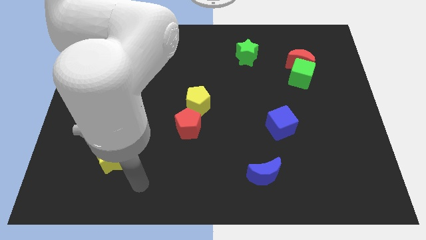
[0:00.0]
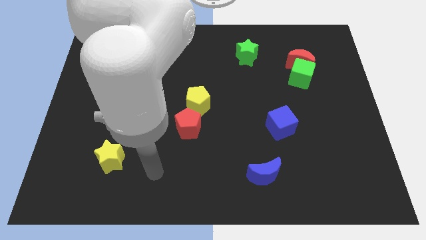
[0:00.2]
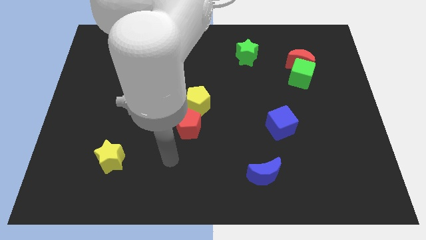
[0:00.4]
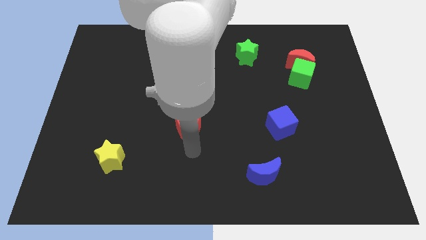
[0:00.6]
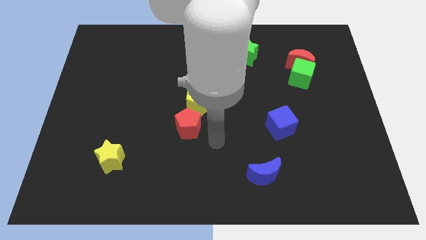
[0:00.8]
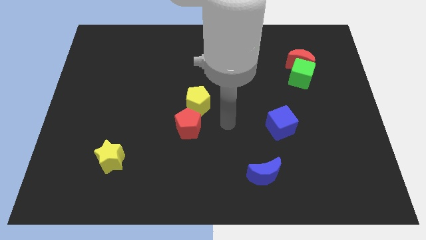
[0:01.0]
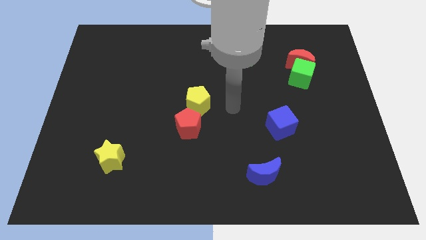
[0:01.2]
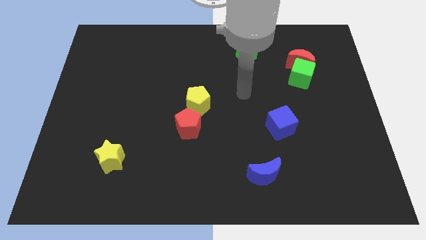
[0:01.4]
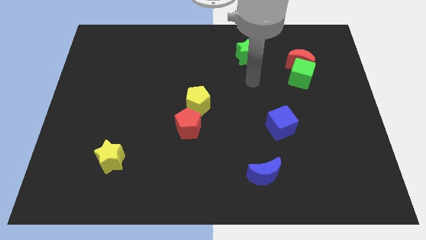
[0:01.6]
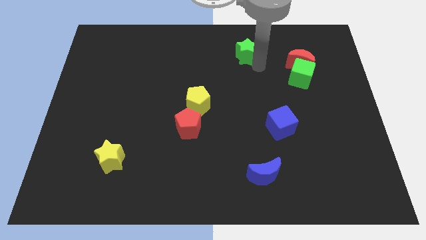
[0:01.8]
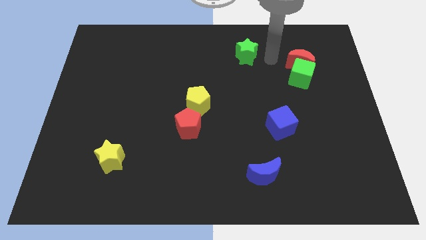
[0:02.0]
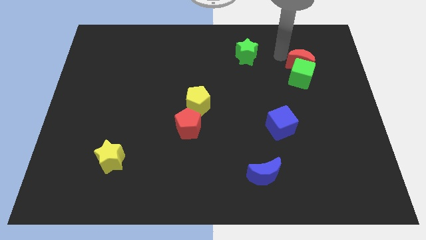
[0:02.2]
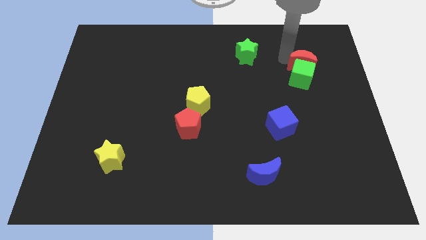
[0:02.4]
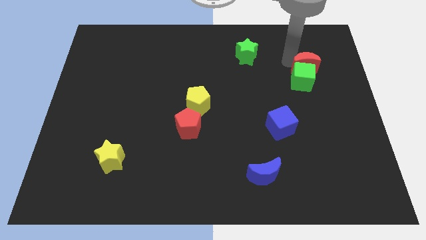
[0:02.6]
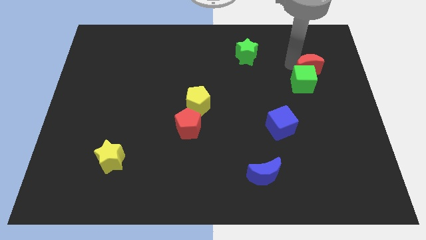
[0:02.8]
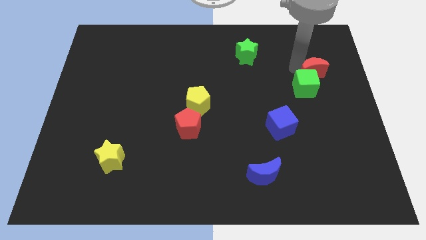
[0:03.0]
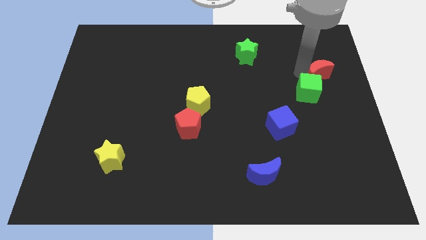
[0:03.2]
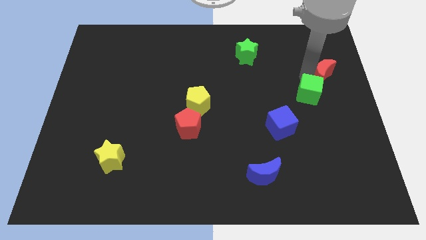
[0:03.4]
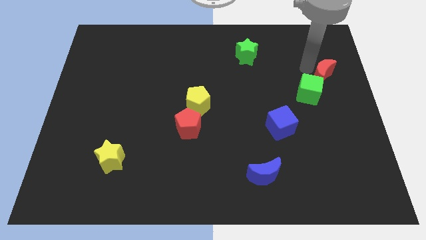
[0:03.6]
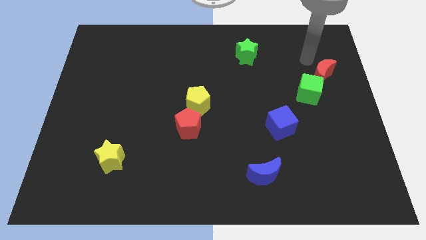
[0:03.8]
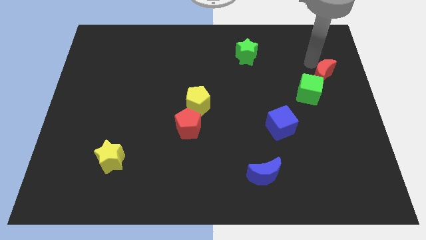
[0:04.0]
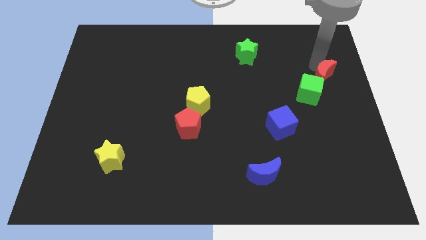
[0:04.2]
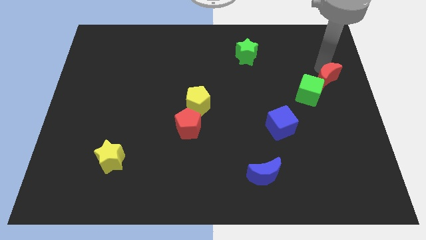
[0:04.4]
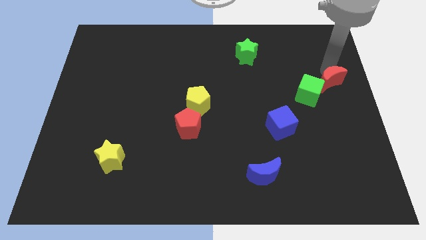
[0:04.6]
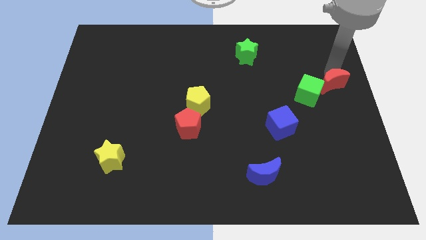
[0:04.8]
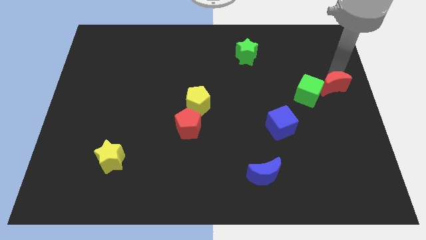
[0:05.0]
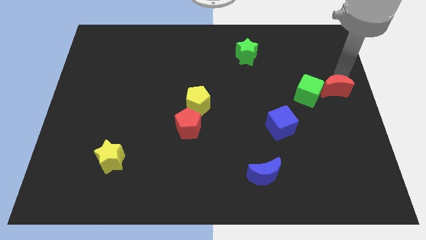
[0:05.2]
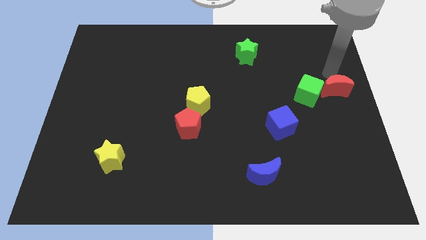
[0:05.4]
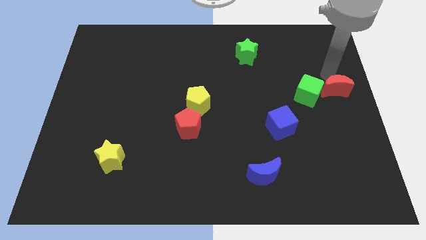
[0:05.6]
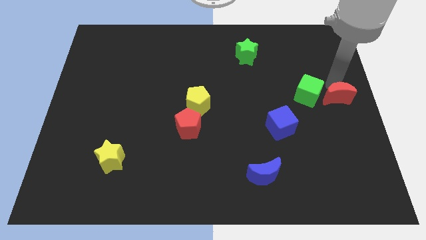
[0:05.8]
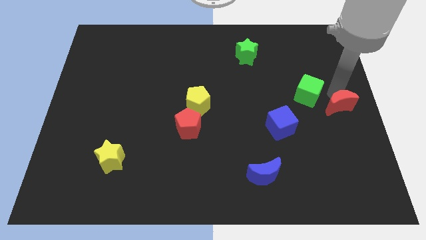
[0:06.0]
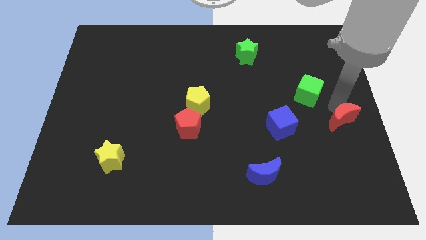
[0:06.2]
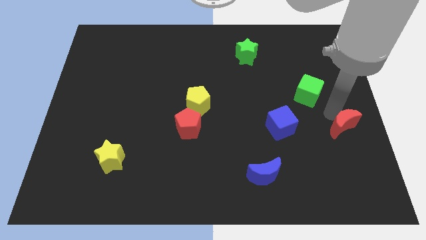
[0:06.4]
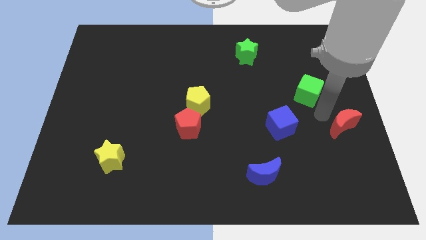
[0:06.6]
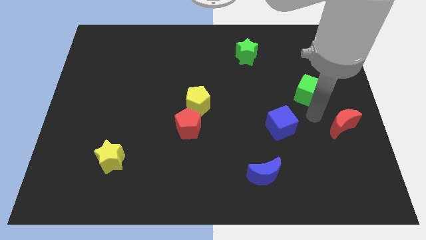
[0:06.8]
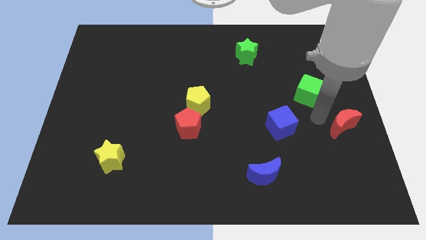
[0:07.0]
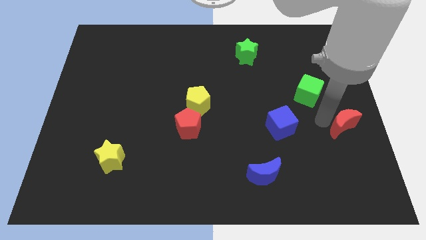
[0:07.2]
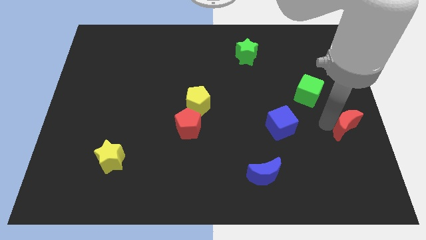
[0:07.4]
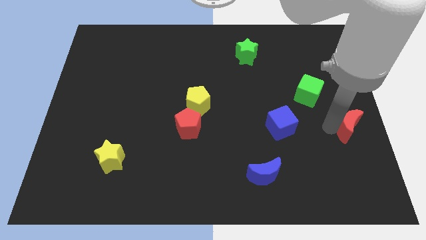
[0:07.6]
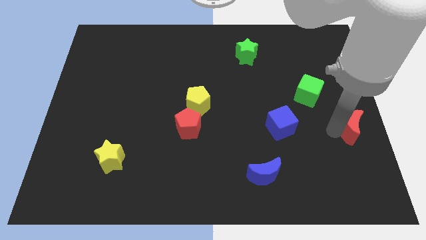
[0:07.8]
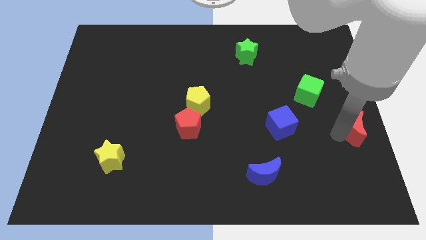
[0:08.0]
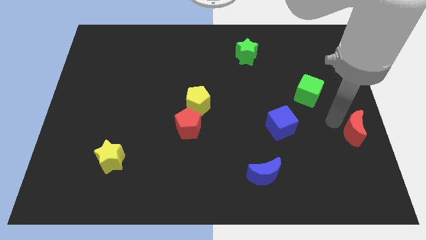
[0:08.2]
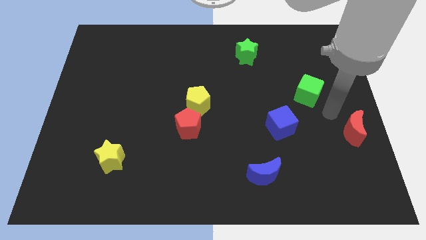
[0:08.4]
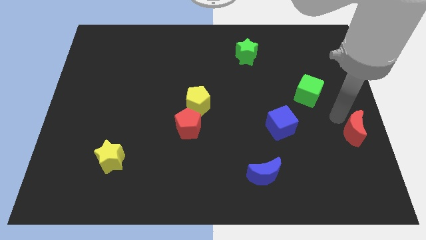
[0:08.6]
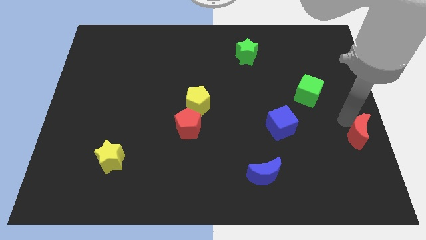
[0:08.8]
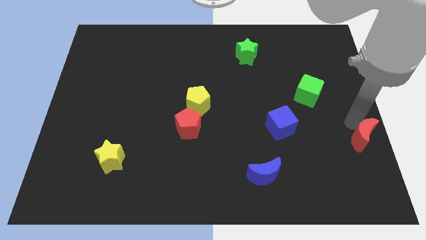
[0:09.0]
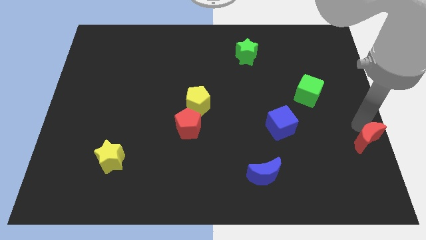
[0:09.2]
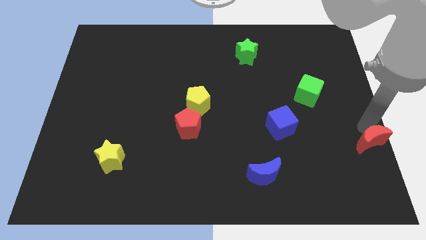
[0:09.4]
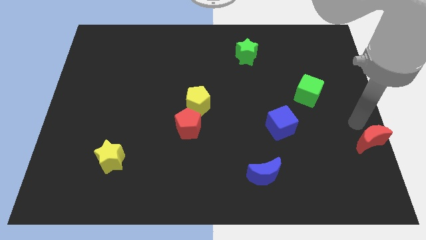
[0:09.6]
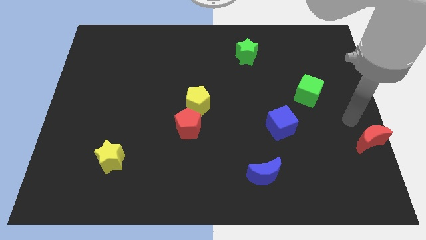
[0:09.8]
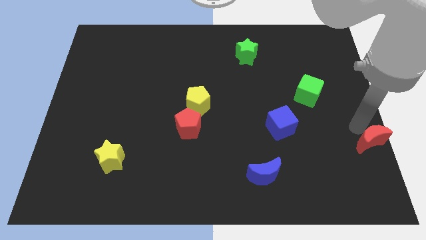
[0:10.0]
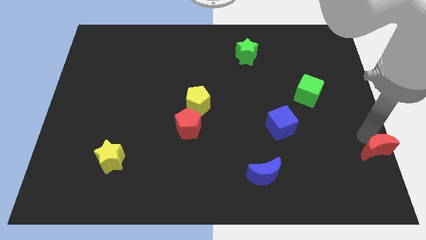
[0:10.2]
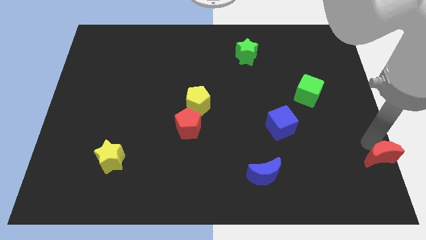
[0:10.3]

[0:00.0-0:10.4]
put the red moon to the bottom right corner
